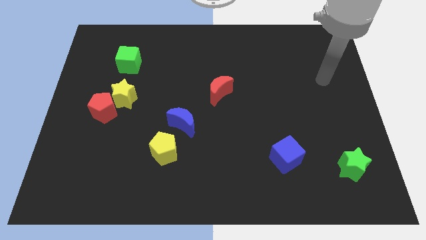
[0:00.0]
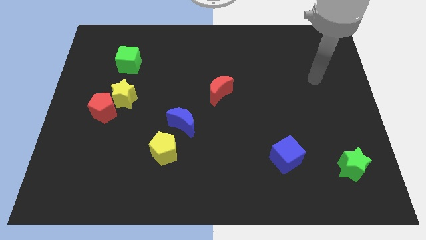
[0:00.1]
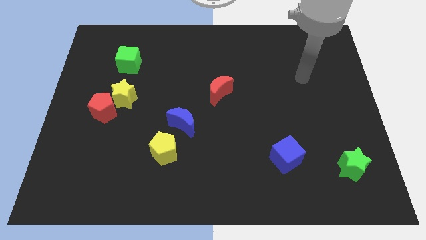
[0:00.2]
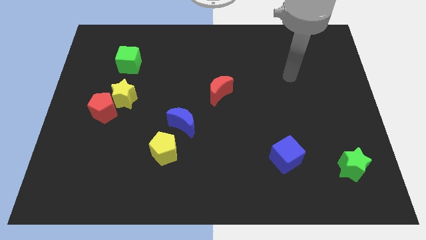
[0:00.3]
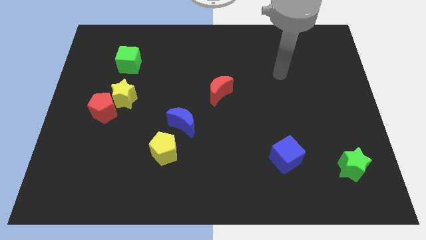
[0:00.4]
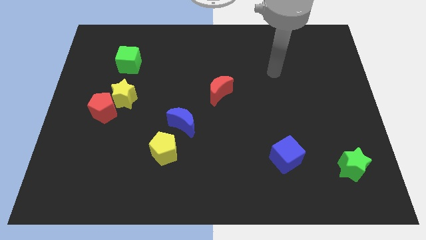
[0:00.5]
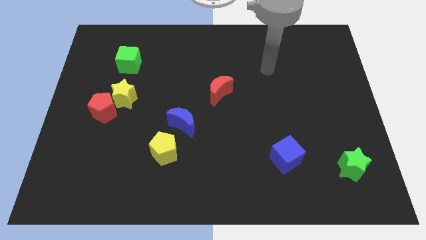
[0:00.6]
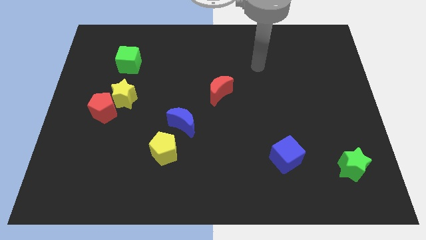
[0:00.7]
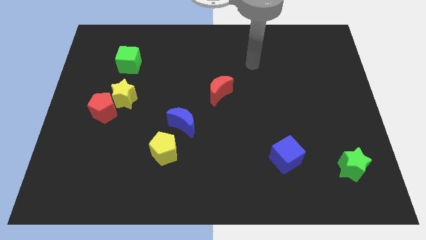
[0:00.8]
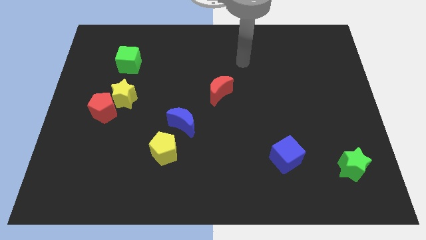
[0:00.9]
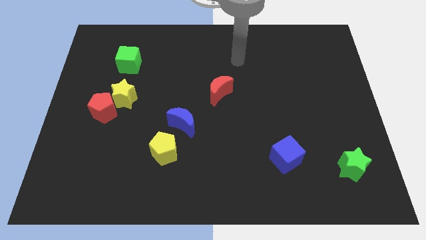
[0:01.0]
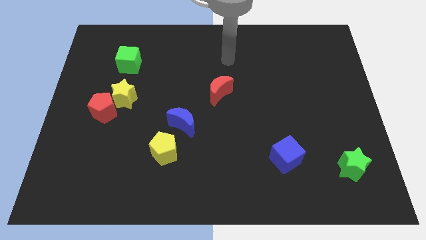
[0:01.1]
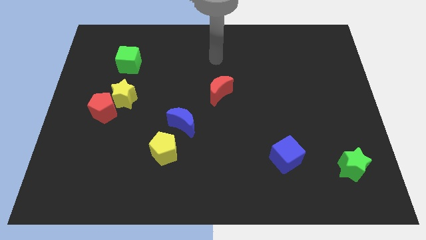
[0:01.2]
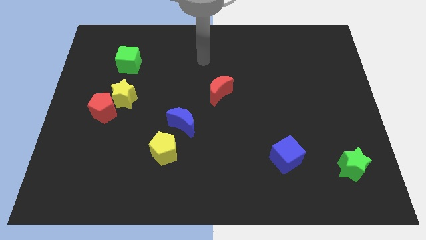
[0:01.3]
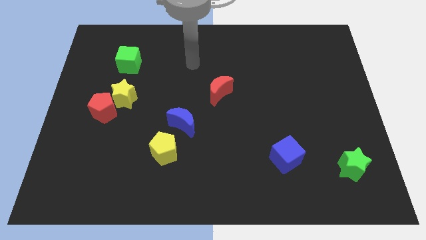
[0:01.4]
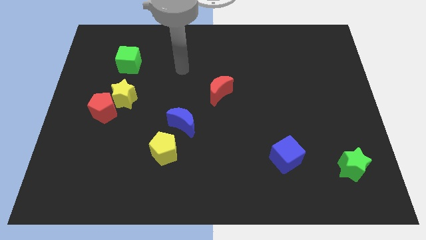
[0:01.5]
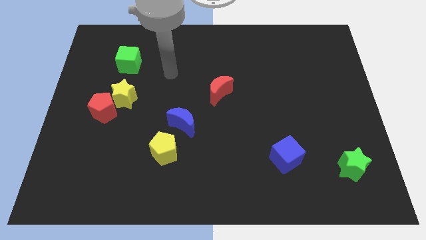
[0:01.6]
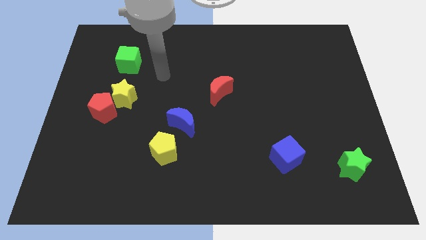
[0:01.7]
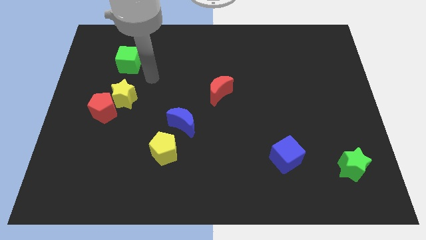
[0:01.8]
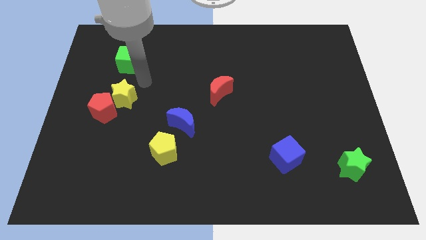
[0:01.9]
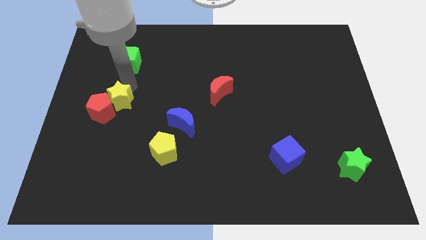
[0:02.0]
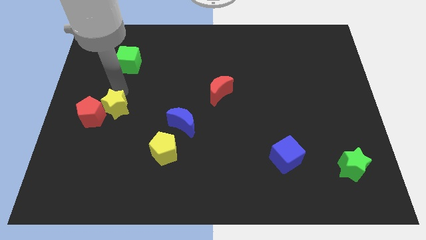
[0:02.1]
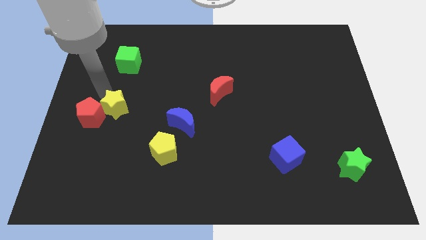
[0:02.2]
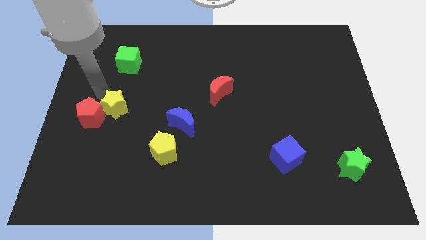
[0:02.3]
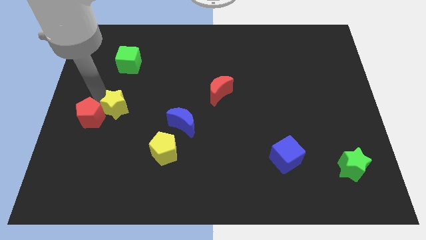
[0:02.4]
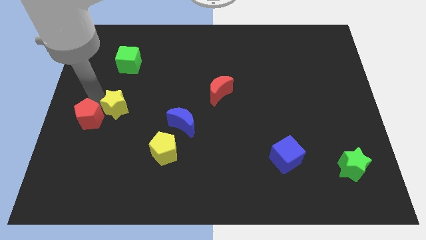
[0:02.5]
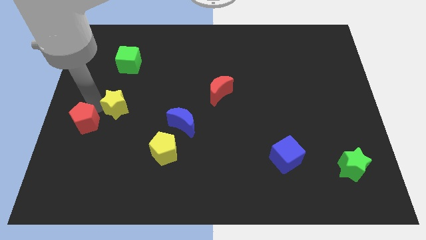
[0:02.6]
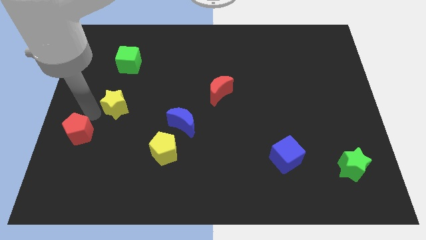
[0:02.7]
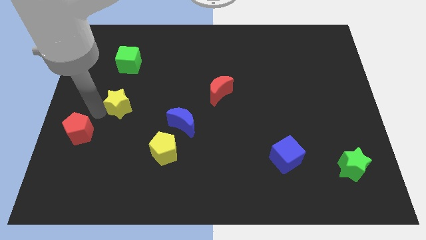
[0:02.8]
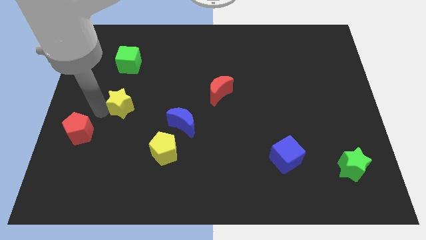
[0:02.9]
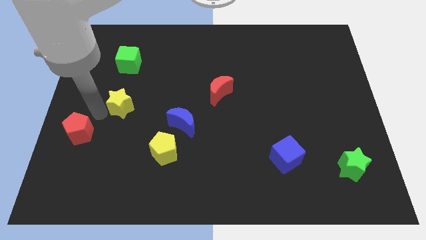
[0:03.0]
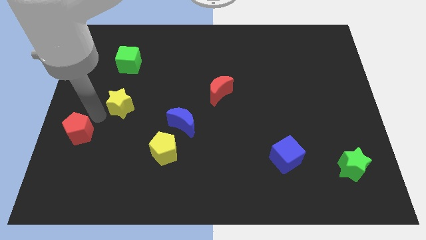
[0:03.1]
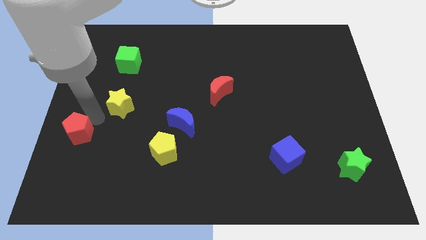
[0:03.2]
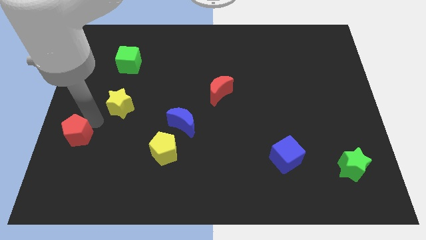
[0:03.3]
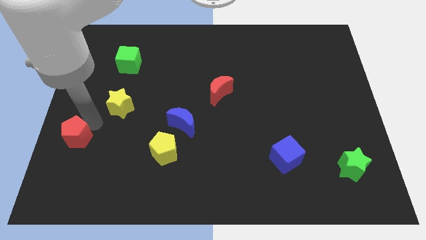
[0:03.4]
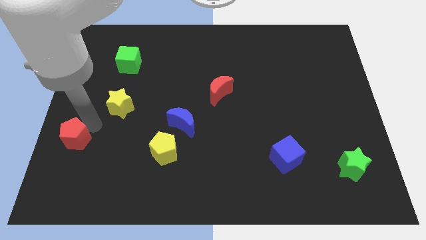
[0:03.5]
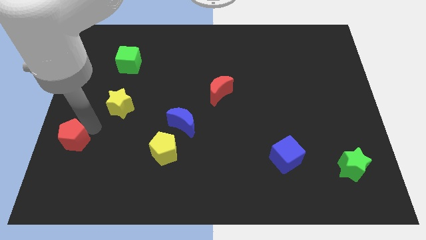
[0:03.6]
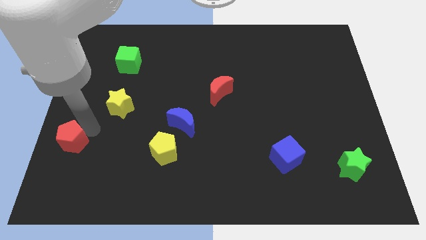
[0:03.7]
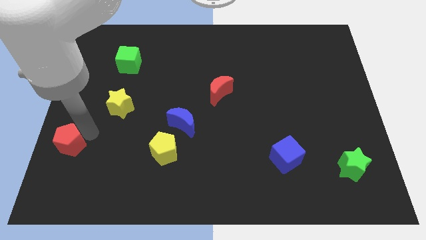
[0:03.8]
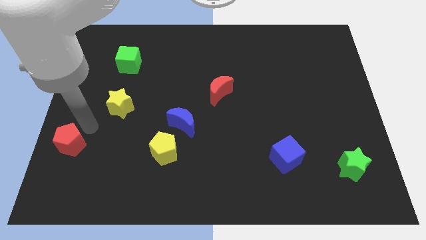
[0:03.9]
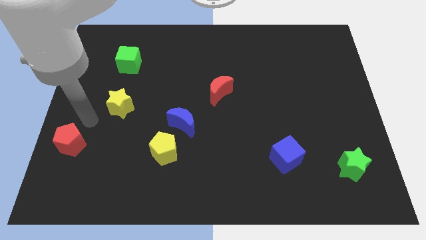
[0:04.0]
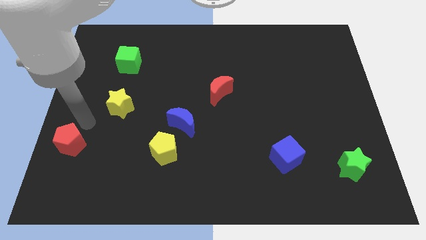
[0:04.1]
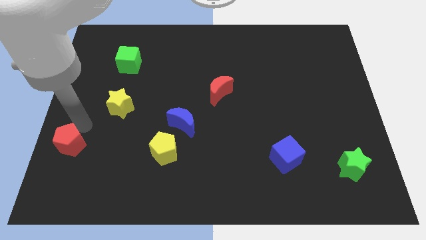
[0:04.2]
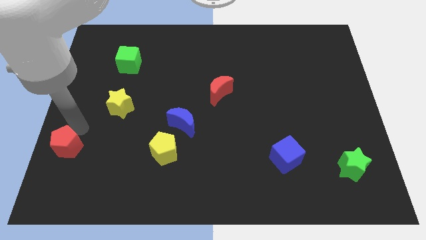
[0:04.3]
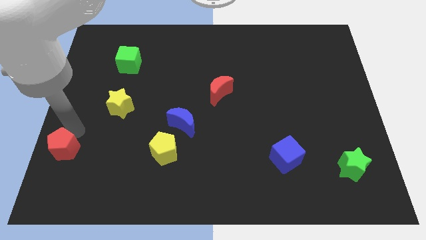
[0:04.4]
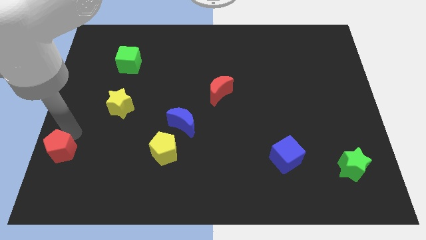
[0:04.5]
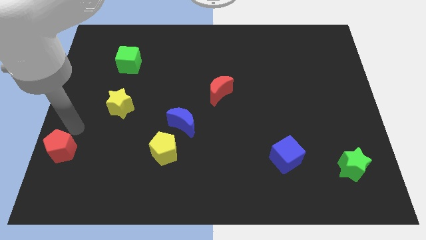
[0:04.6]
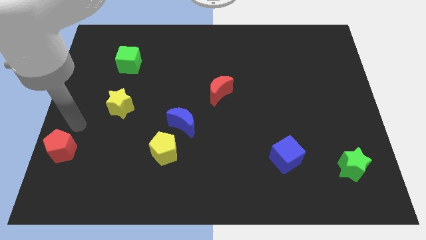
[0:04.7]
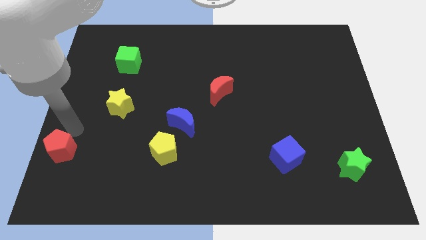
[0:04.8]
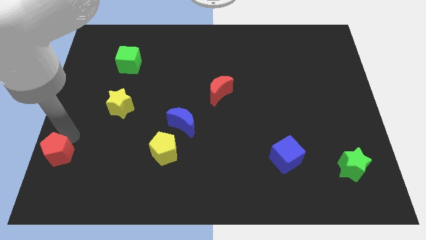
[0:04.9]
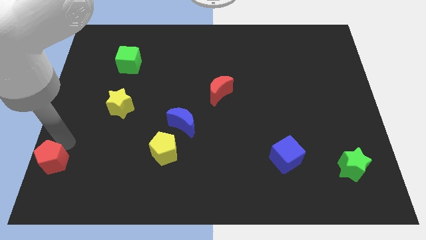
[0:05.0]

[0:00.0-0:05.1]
put the red pentagon to the bottom left

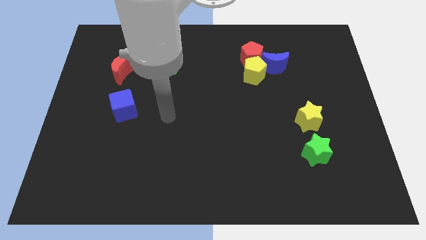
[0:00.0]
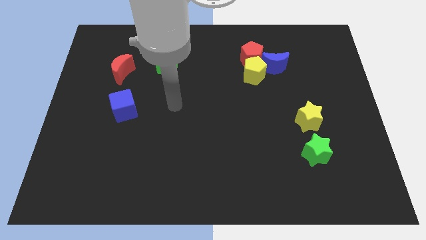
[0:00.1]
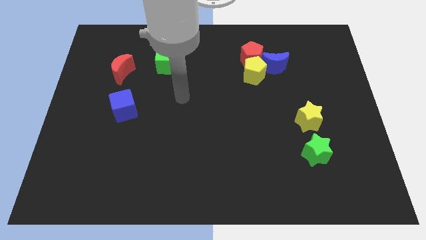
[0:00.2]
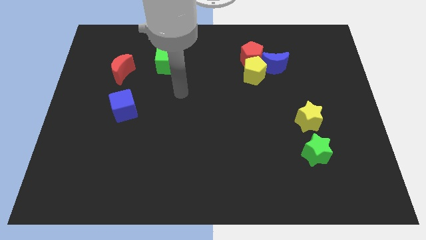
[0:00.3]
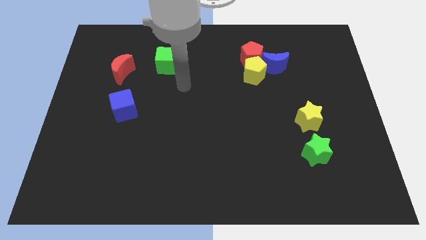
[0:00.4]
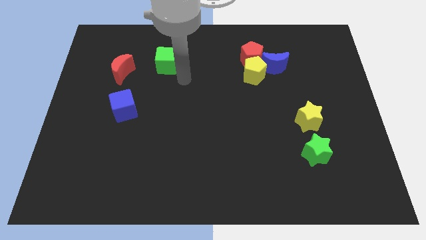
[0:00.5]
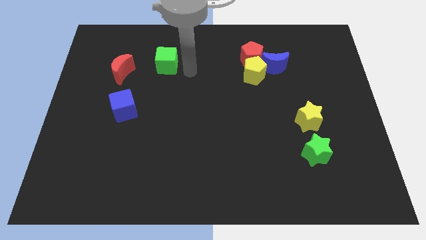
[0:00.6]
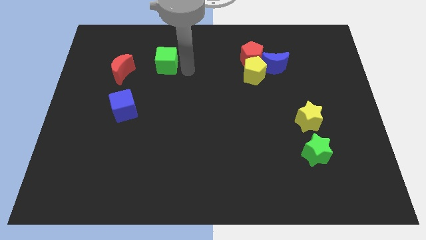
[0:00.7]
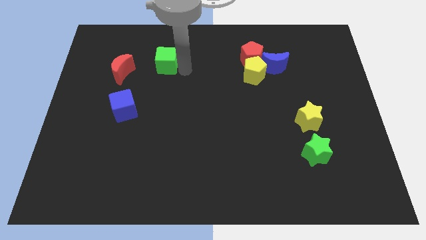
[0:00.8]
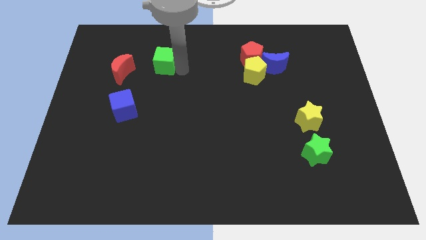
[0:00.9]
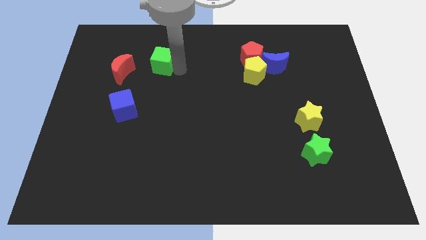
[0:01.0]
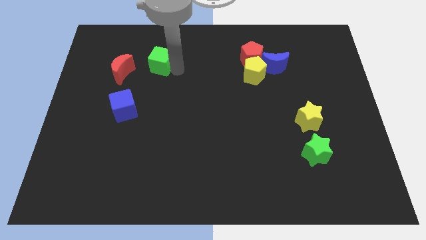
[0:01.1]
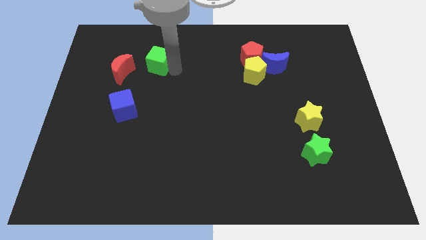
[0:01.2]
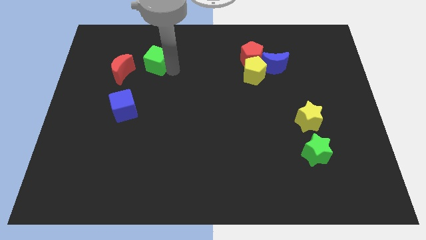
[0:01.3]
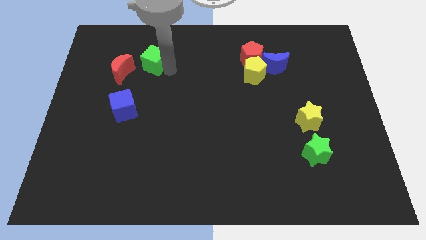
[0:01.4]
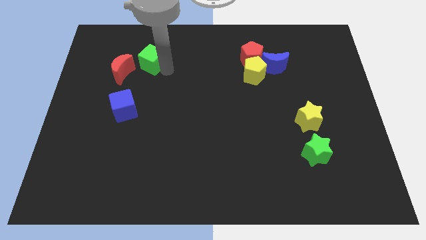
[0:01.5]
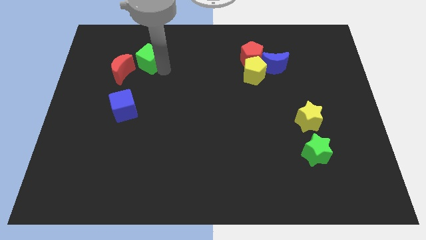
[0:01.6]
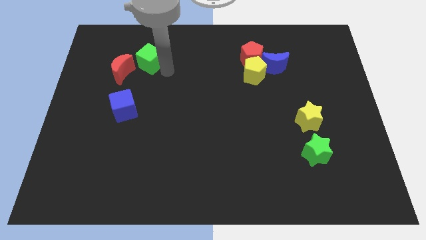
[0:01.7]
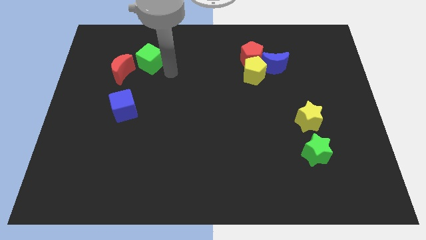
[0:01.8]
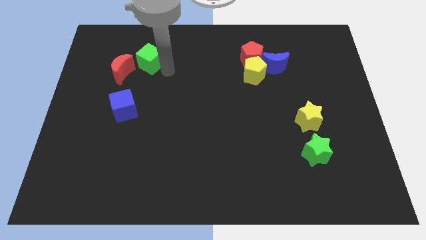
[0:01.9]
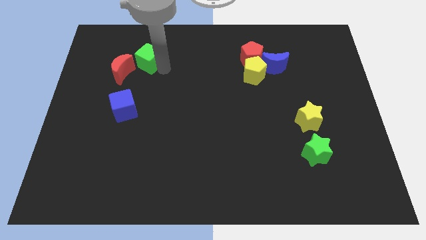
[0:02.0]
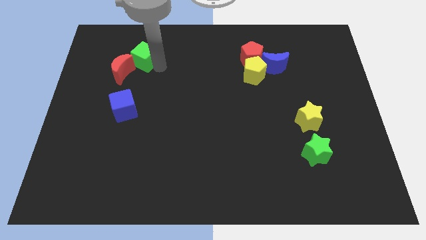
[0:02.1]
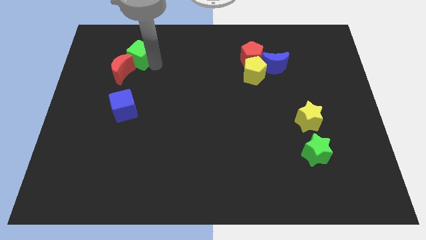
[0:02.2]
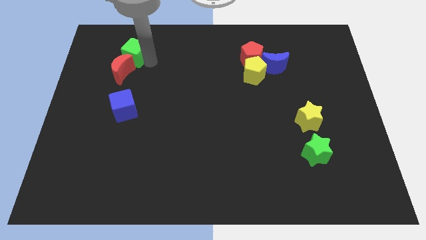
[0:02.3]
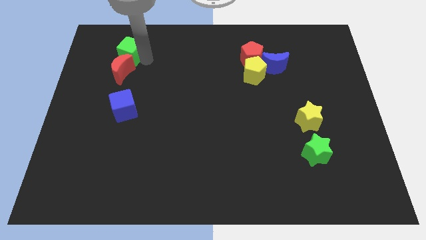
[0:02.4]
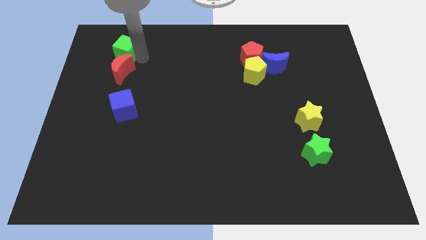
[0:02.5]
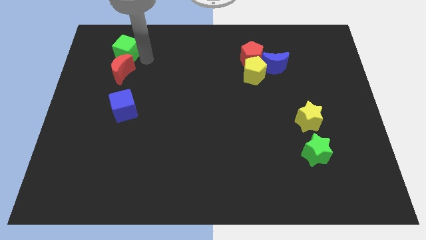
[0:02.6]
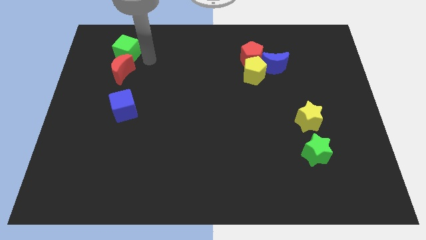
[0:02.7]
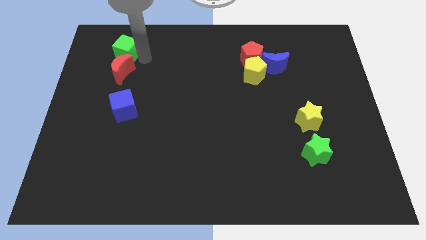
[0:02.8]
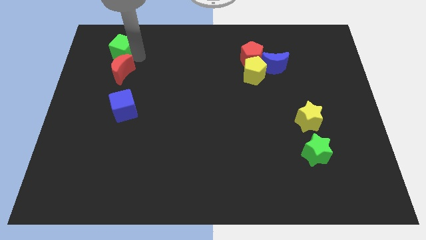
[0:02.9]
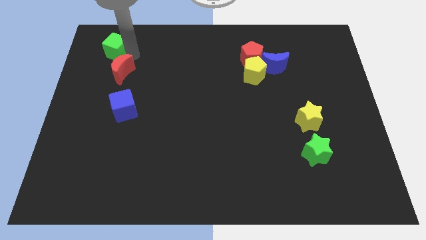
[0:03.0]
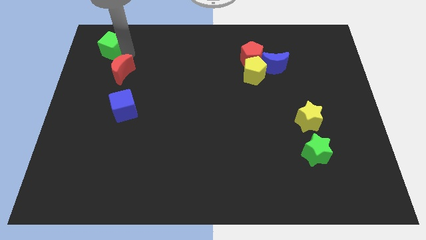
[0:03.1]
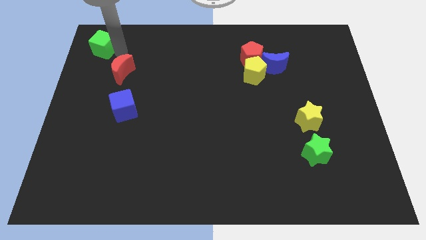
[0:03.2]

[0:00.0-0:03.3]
slide the green cube to the top left
